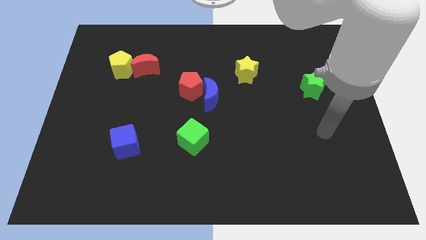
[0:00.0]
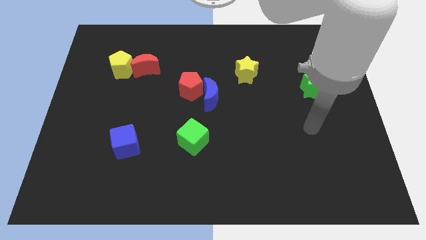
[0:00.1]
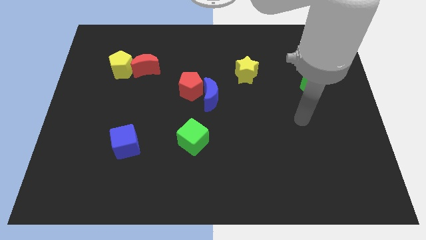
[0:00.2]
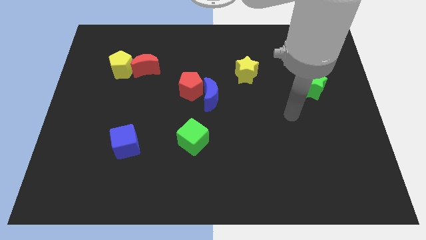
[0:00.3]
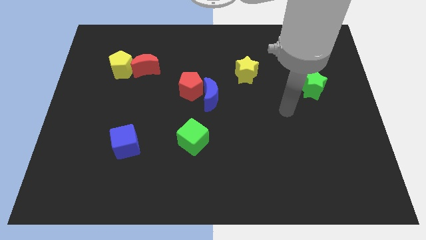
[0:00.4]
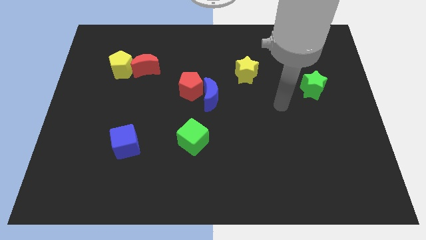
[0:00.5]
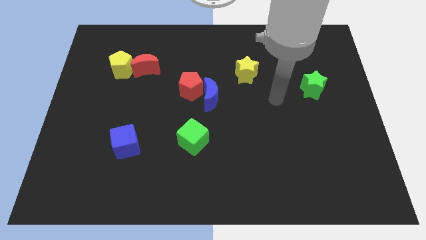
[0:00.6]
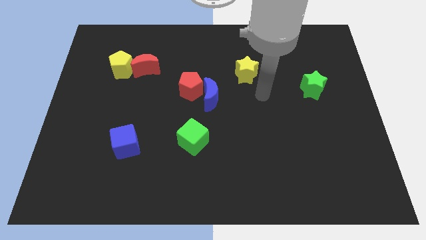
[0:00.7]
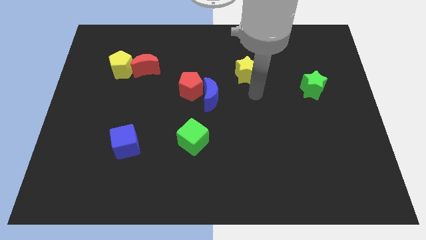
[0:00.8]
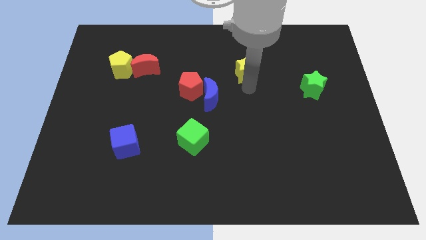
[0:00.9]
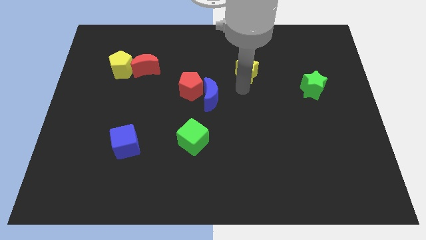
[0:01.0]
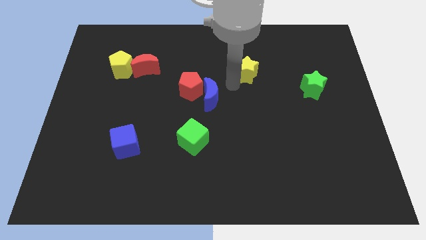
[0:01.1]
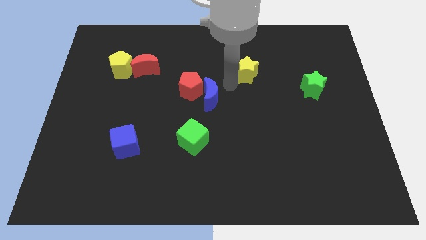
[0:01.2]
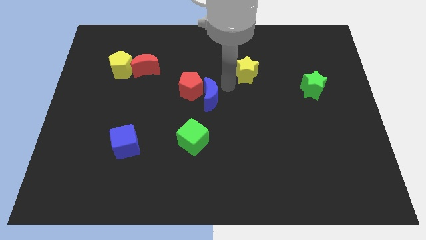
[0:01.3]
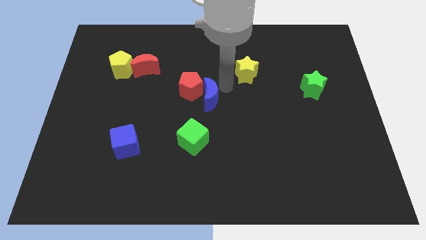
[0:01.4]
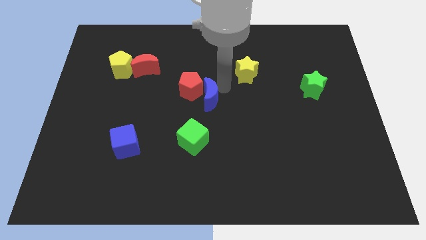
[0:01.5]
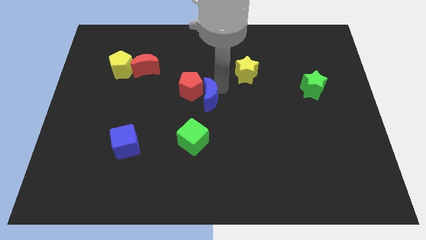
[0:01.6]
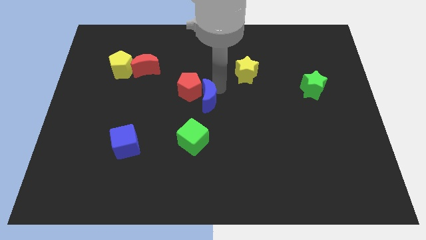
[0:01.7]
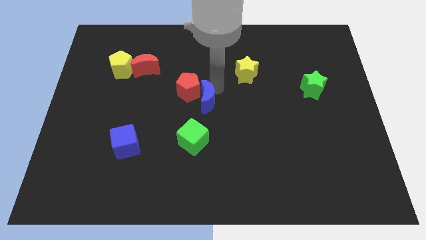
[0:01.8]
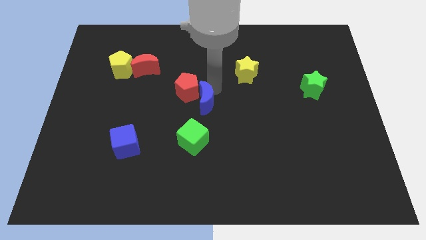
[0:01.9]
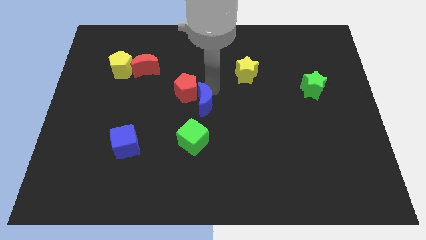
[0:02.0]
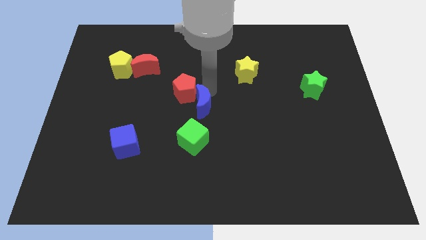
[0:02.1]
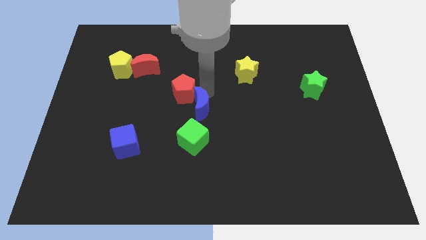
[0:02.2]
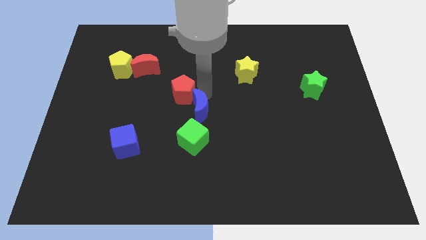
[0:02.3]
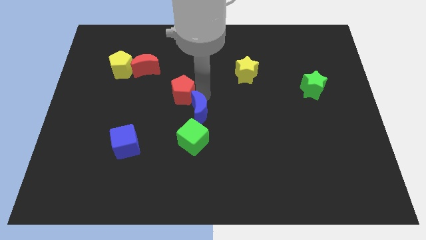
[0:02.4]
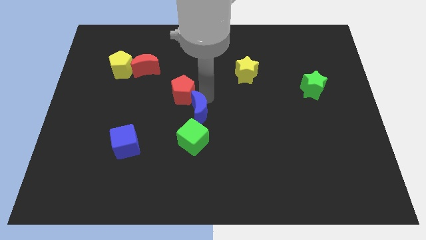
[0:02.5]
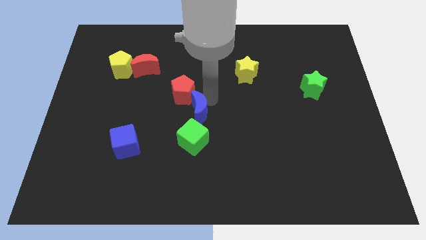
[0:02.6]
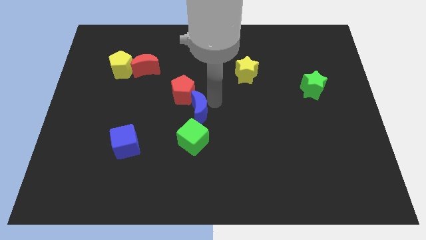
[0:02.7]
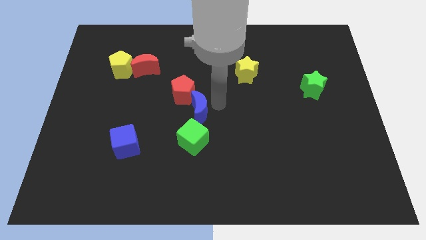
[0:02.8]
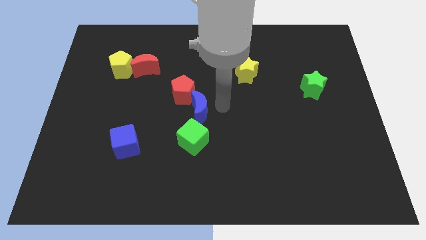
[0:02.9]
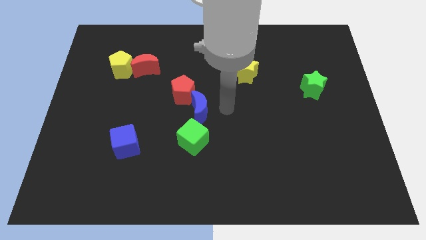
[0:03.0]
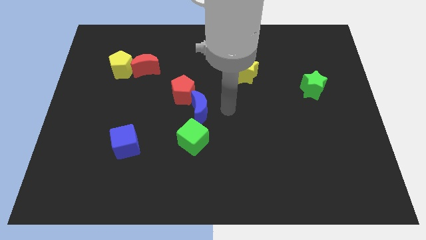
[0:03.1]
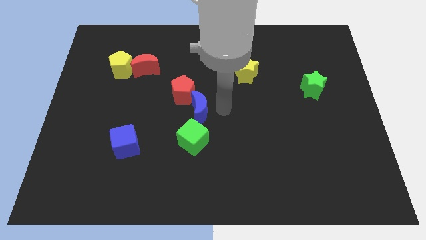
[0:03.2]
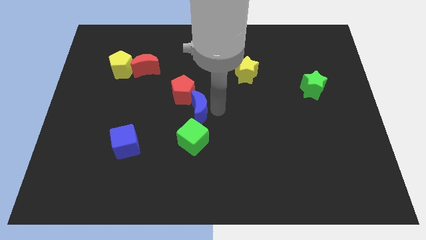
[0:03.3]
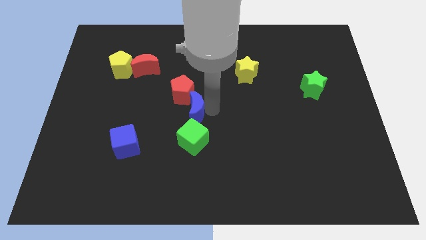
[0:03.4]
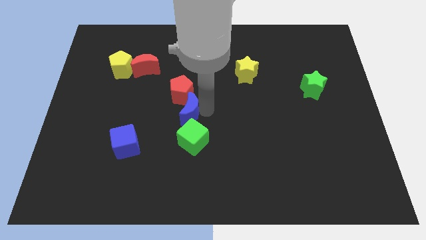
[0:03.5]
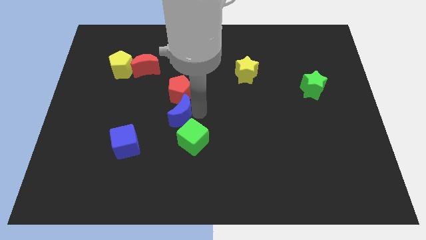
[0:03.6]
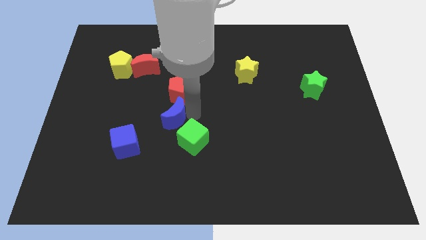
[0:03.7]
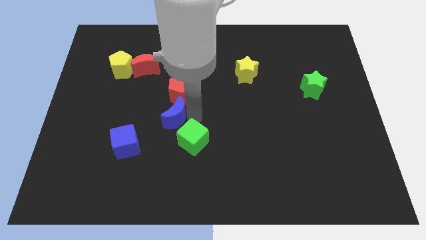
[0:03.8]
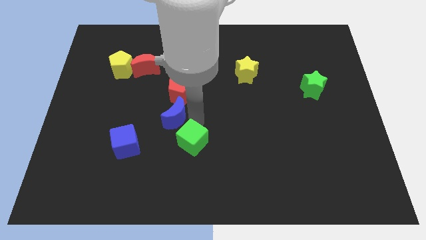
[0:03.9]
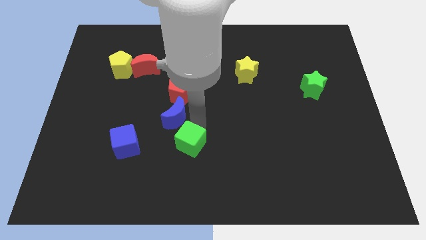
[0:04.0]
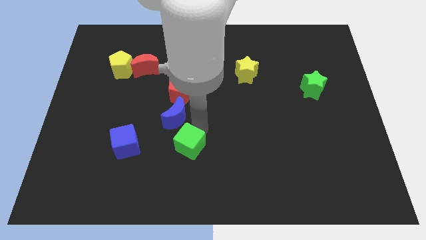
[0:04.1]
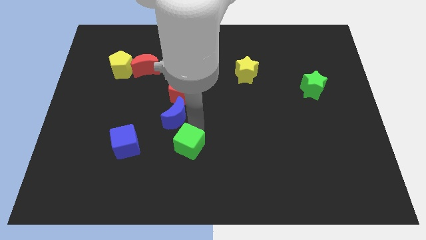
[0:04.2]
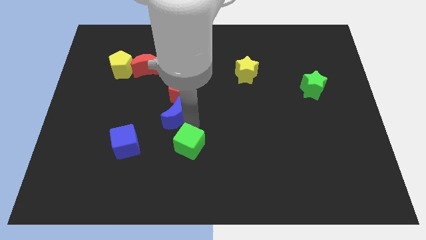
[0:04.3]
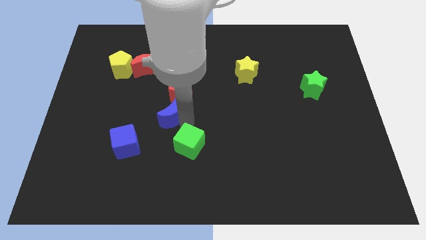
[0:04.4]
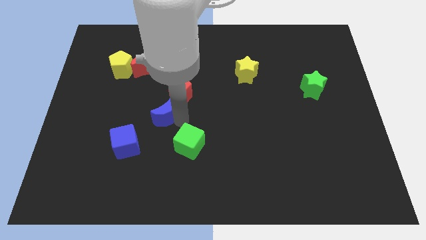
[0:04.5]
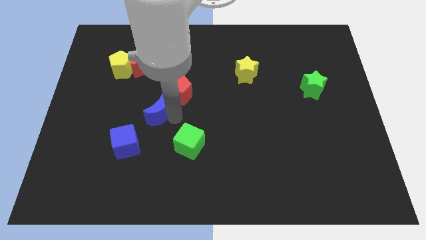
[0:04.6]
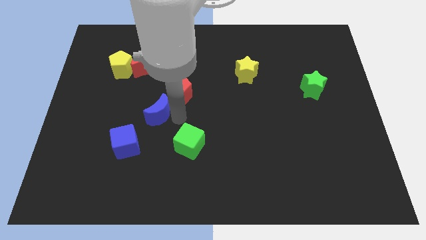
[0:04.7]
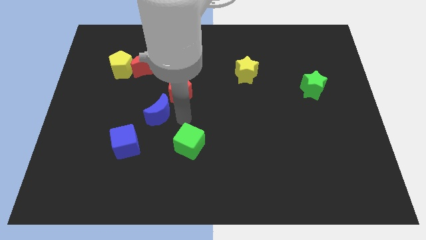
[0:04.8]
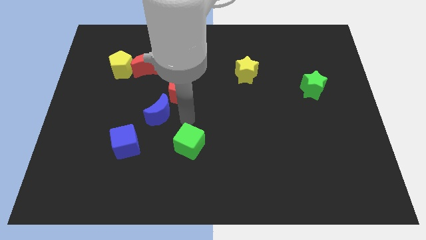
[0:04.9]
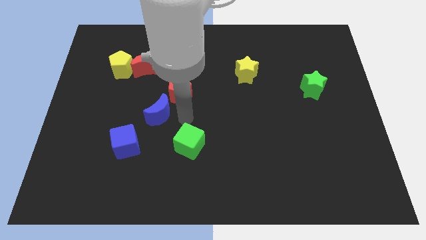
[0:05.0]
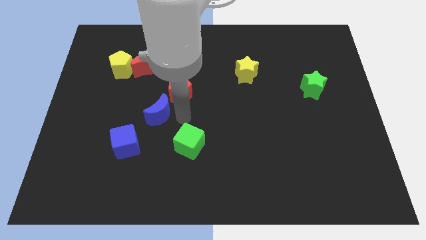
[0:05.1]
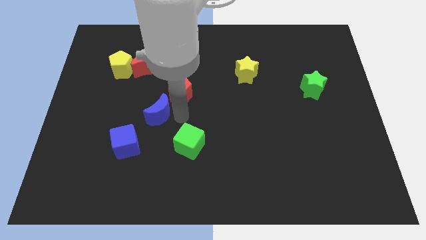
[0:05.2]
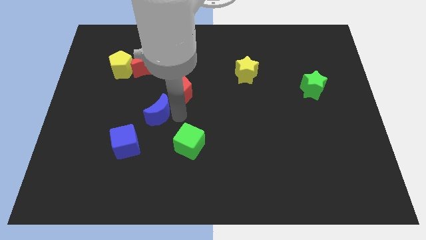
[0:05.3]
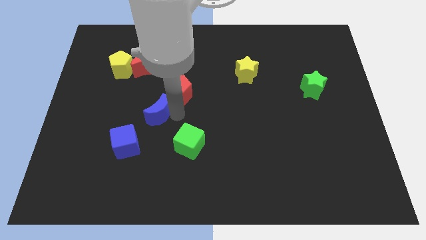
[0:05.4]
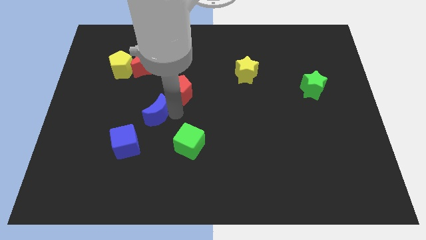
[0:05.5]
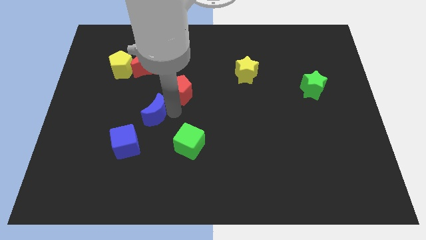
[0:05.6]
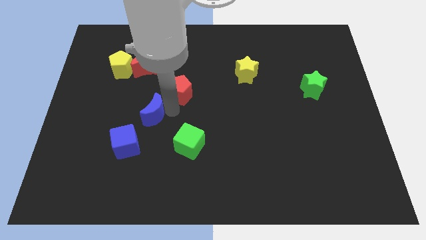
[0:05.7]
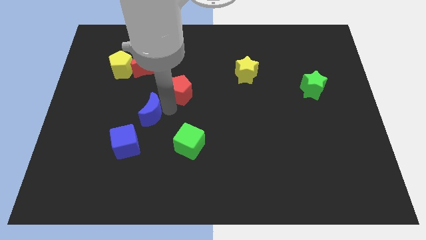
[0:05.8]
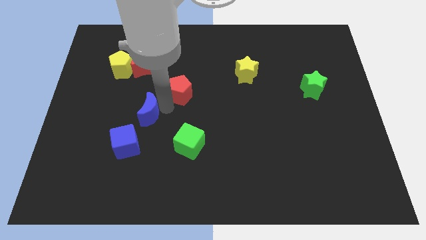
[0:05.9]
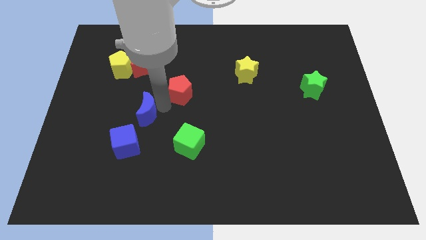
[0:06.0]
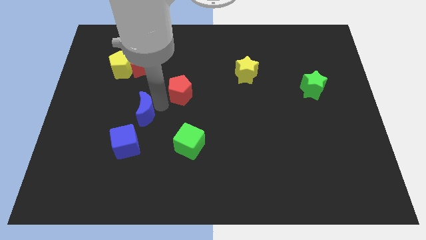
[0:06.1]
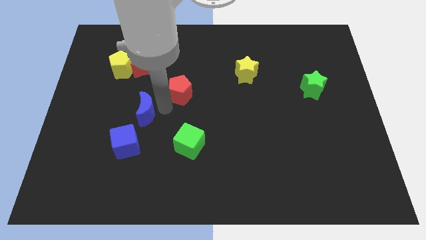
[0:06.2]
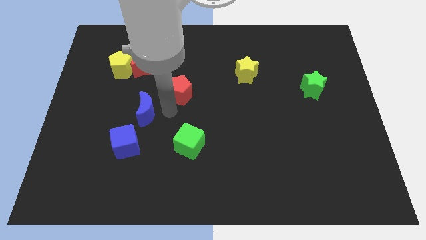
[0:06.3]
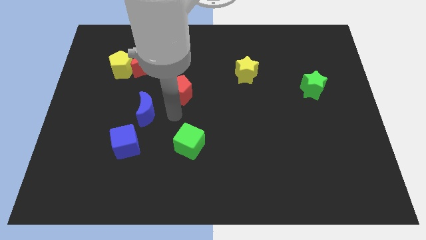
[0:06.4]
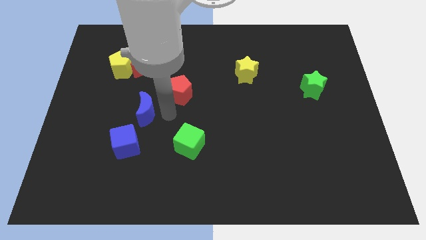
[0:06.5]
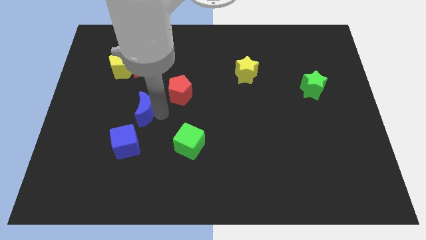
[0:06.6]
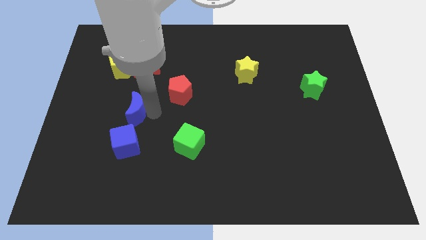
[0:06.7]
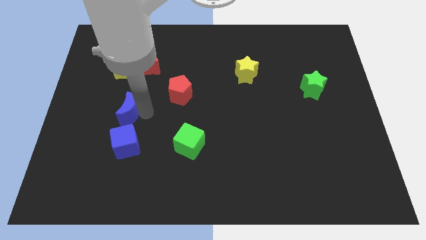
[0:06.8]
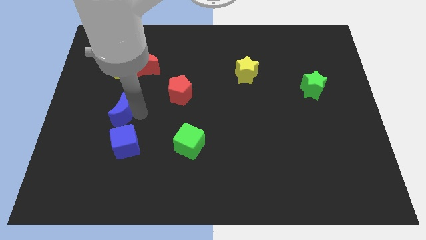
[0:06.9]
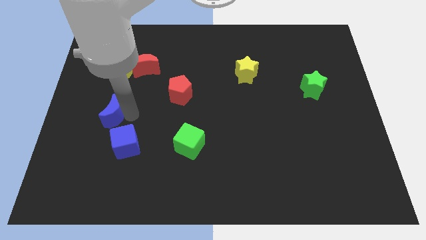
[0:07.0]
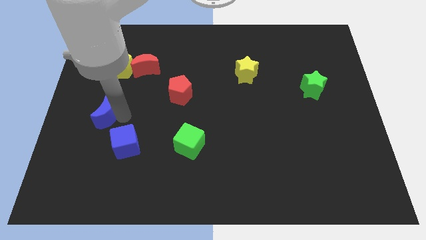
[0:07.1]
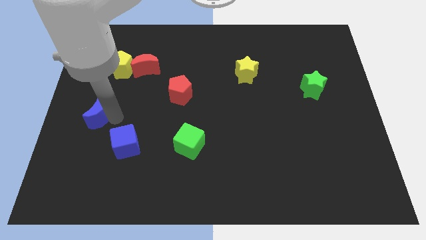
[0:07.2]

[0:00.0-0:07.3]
push the blue moon to the center left

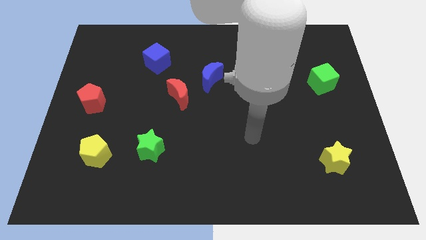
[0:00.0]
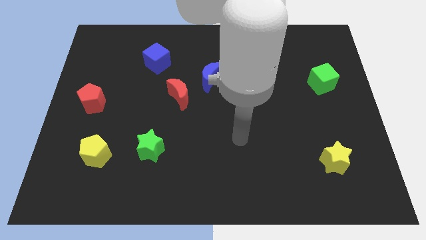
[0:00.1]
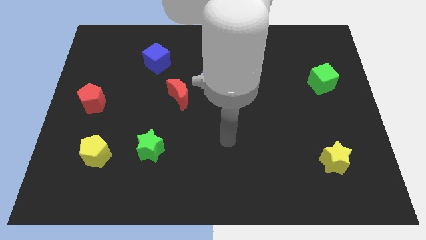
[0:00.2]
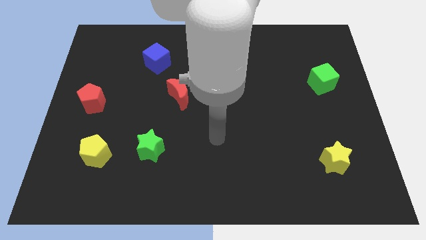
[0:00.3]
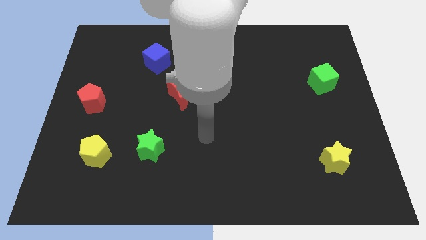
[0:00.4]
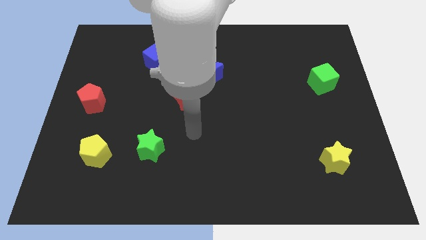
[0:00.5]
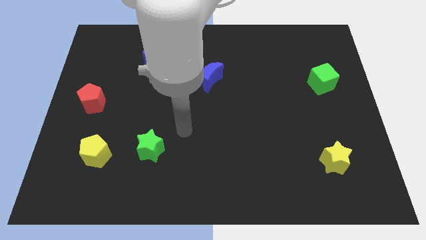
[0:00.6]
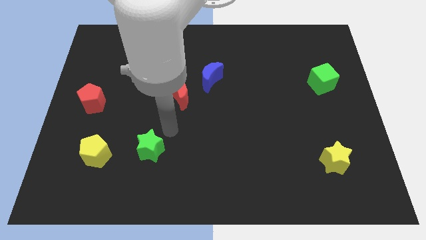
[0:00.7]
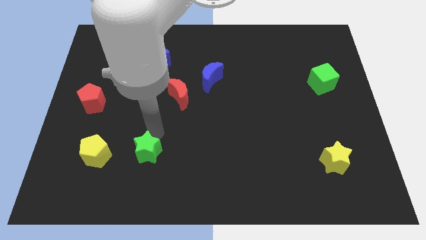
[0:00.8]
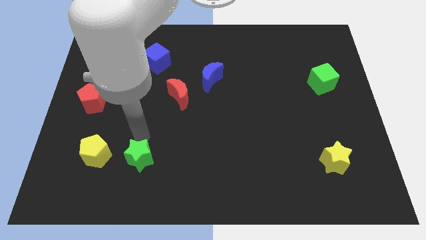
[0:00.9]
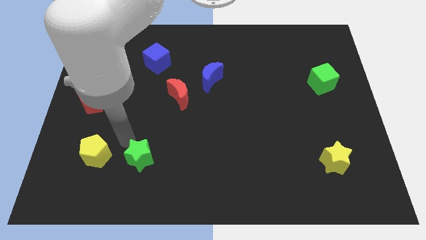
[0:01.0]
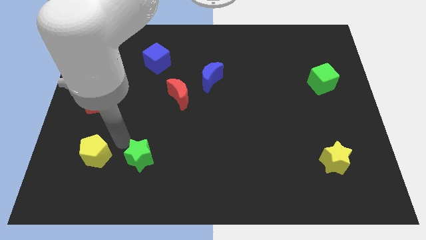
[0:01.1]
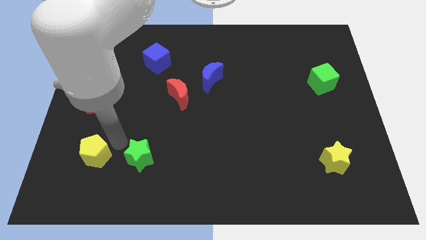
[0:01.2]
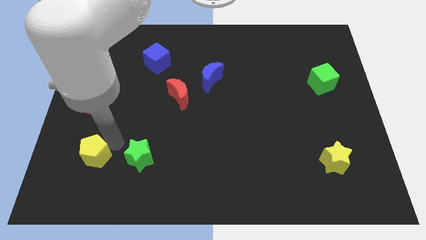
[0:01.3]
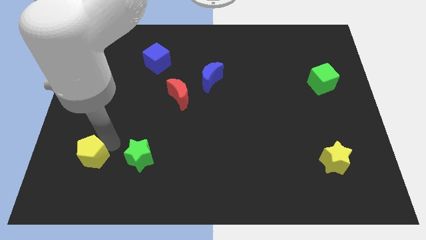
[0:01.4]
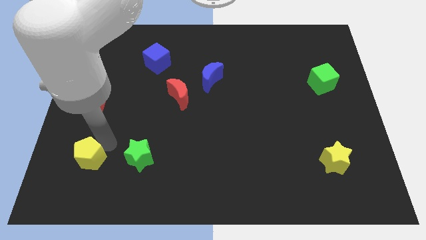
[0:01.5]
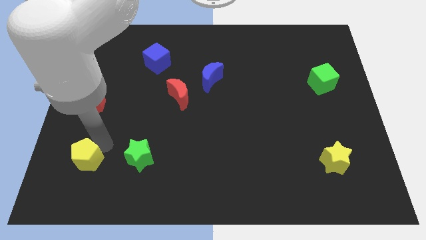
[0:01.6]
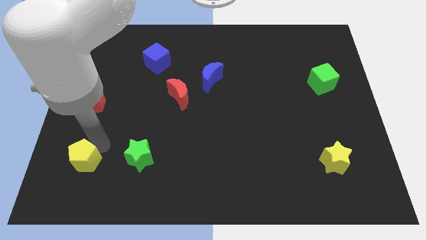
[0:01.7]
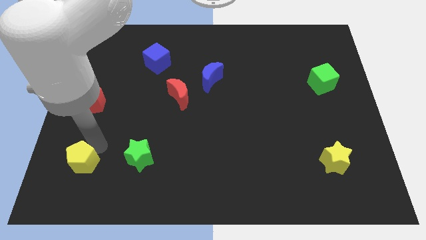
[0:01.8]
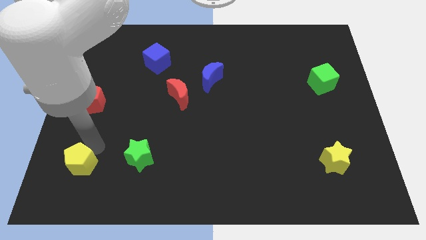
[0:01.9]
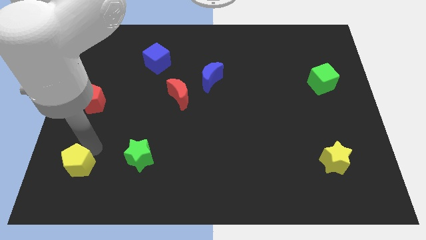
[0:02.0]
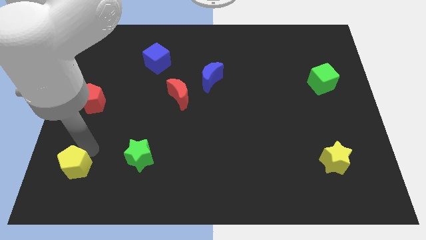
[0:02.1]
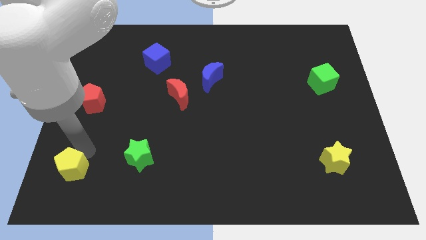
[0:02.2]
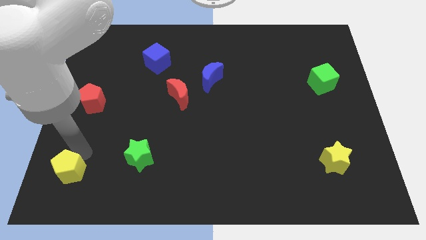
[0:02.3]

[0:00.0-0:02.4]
push the yellow pentagon to the lower left corner
